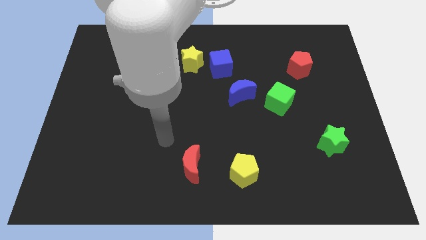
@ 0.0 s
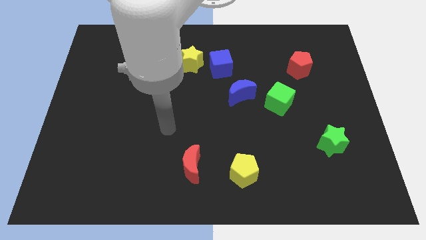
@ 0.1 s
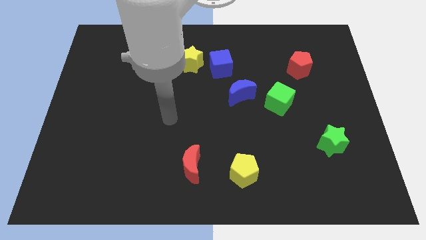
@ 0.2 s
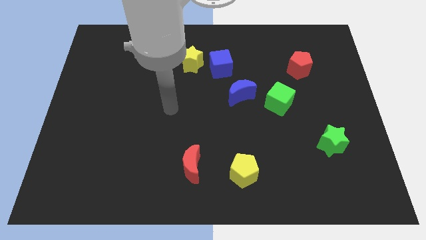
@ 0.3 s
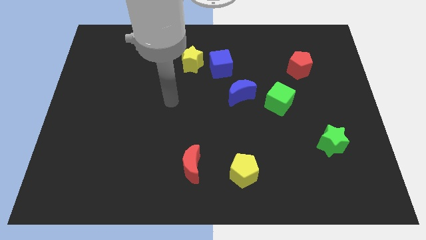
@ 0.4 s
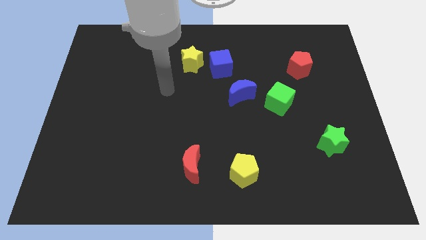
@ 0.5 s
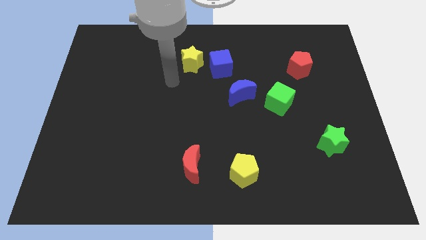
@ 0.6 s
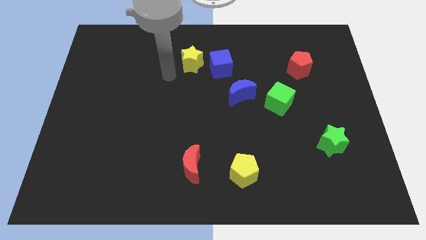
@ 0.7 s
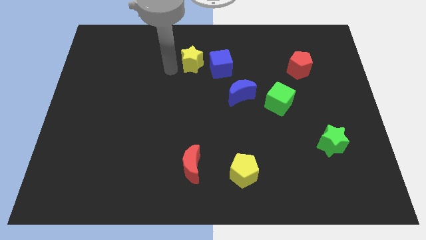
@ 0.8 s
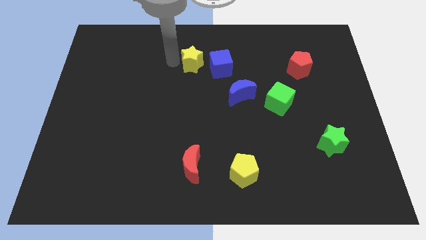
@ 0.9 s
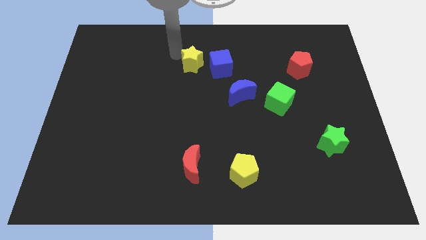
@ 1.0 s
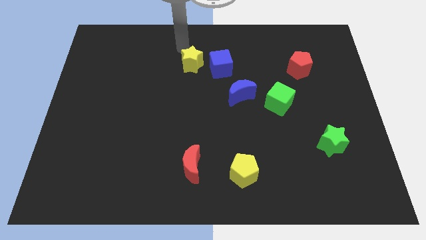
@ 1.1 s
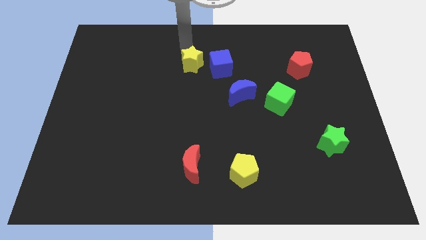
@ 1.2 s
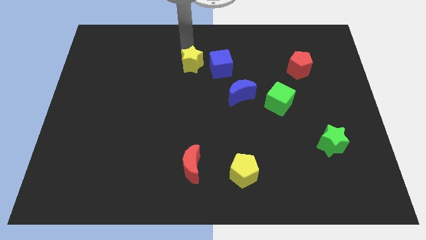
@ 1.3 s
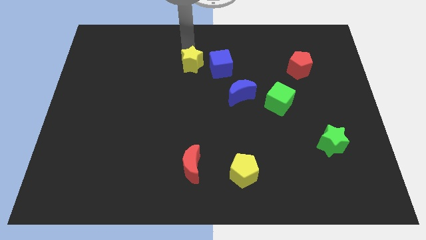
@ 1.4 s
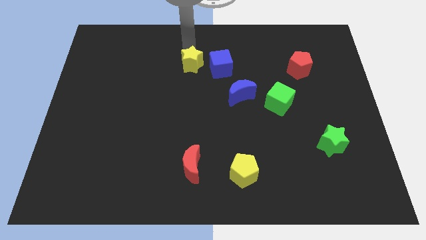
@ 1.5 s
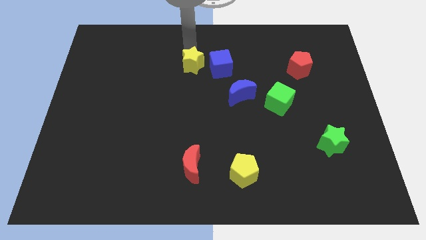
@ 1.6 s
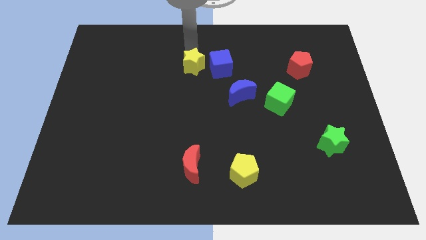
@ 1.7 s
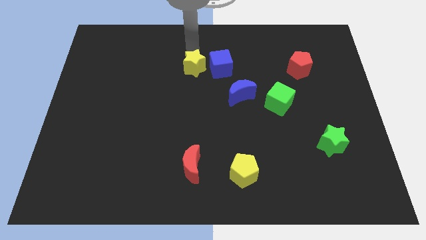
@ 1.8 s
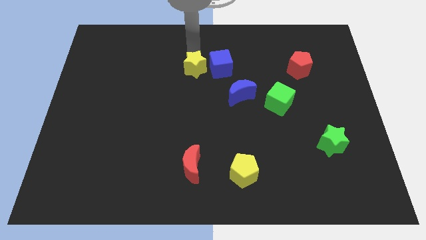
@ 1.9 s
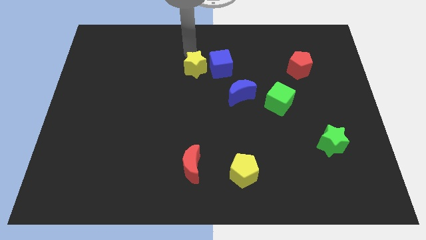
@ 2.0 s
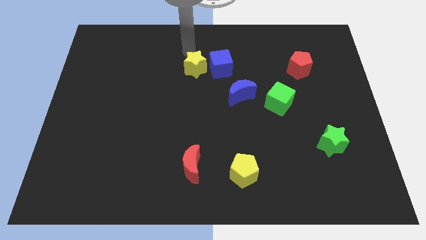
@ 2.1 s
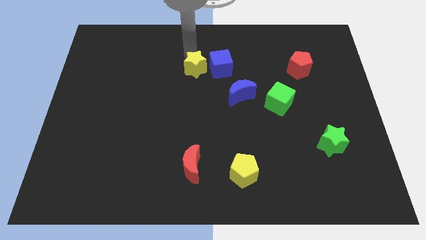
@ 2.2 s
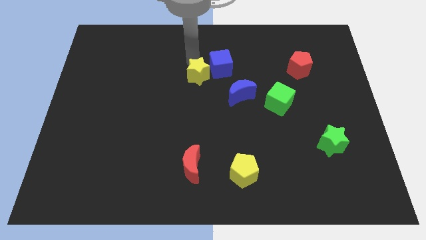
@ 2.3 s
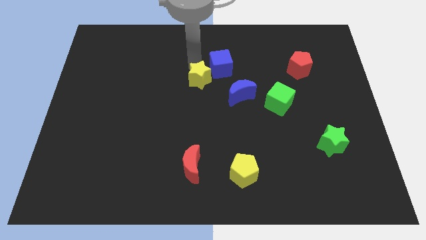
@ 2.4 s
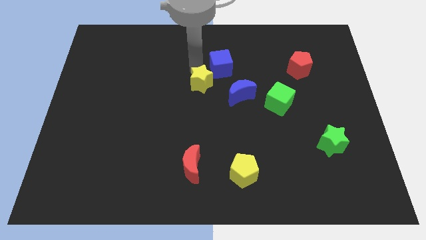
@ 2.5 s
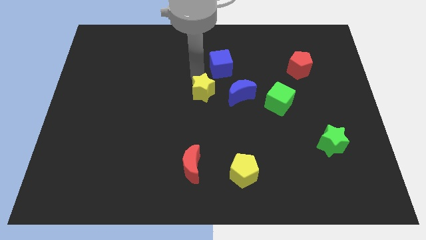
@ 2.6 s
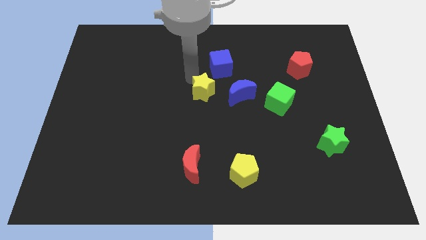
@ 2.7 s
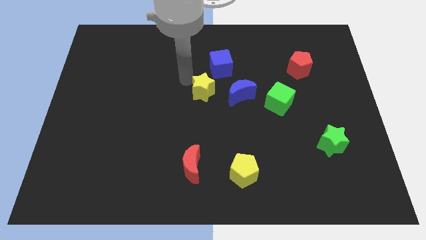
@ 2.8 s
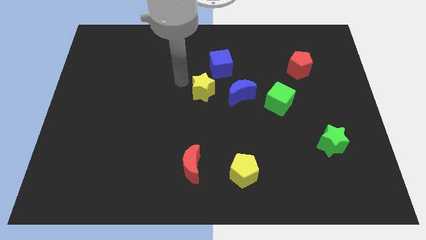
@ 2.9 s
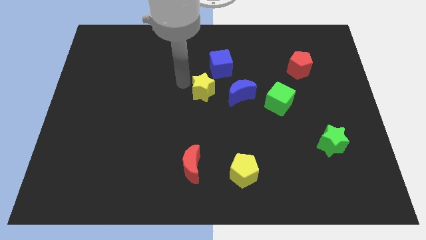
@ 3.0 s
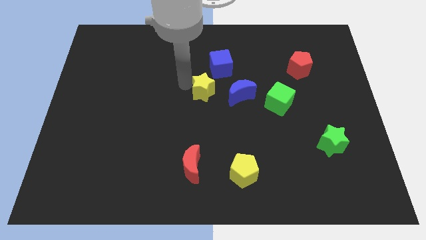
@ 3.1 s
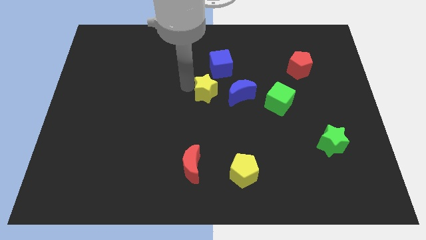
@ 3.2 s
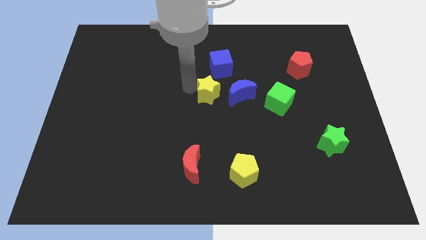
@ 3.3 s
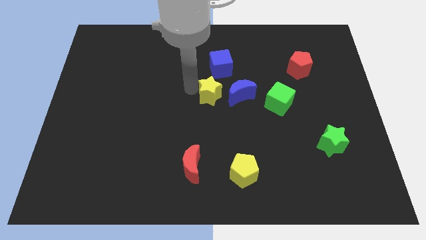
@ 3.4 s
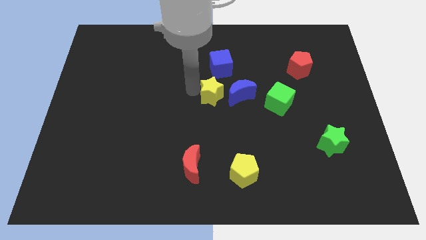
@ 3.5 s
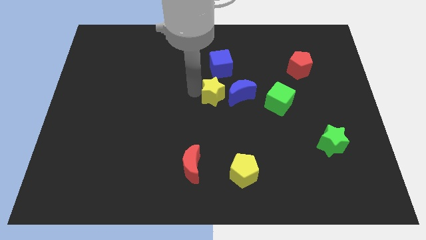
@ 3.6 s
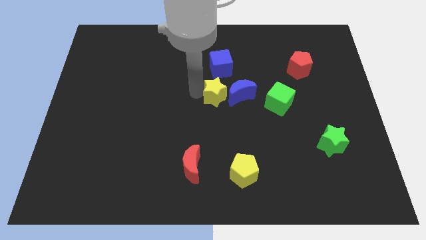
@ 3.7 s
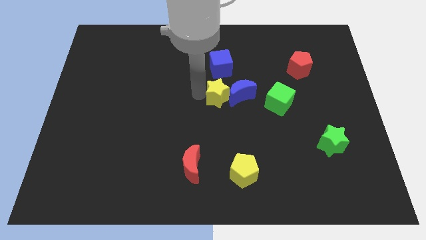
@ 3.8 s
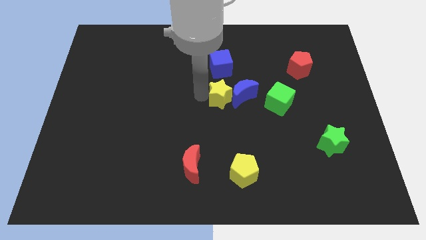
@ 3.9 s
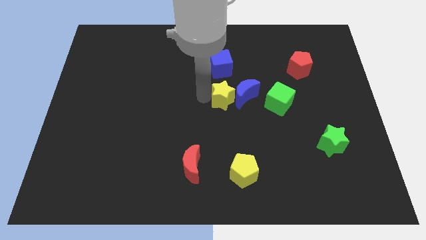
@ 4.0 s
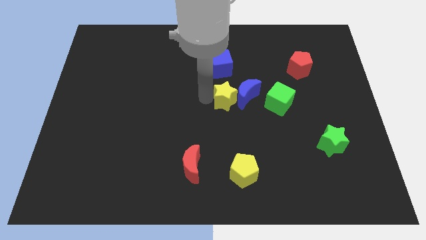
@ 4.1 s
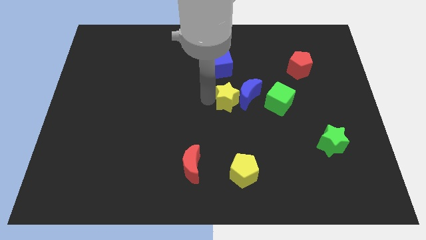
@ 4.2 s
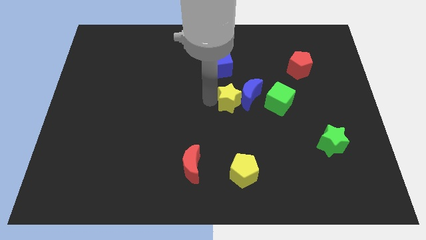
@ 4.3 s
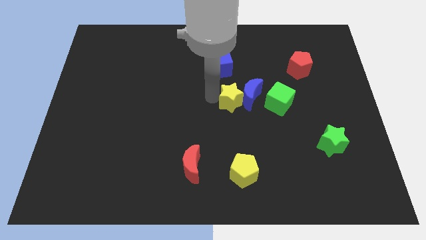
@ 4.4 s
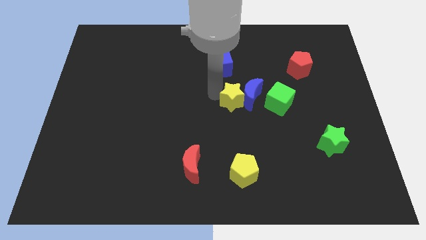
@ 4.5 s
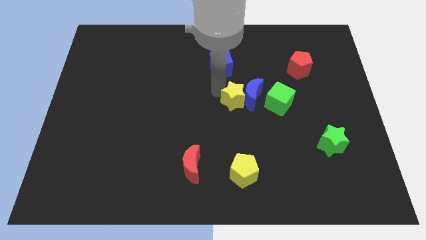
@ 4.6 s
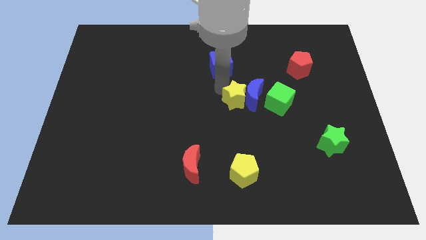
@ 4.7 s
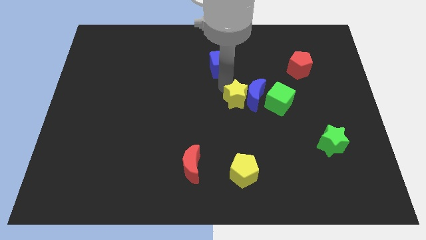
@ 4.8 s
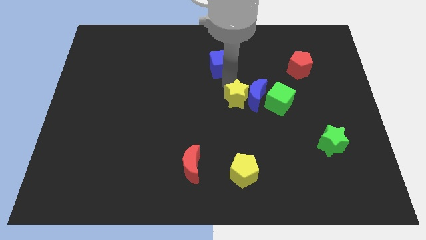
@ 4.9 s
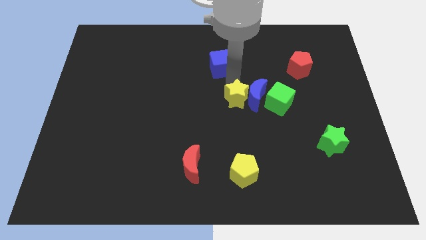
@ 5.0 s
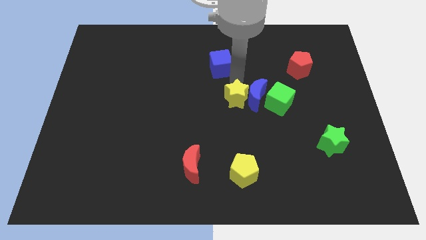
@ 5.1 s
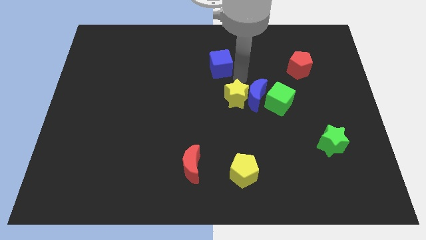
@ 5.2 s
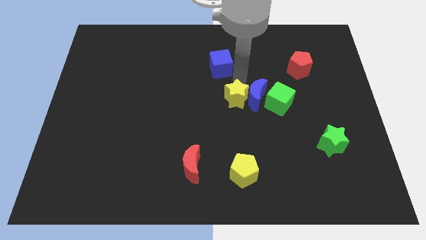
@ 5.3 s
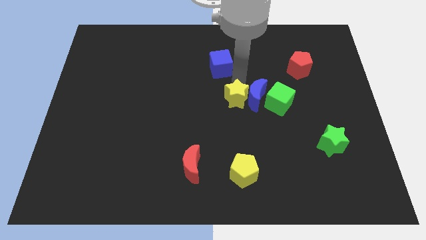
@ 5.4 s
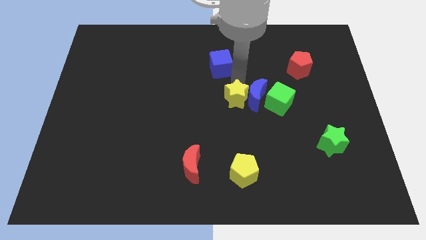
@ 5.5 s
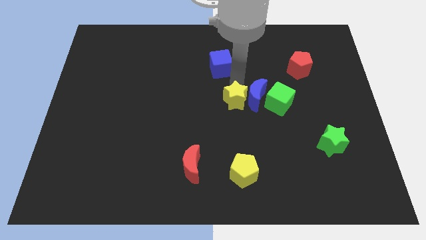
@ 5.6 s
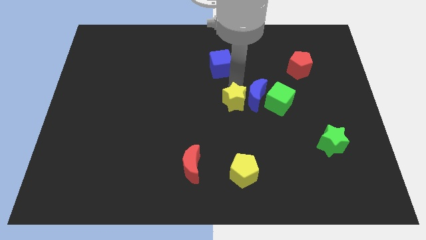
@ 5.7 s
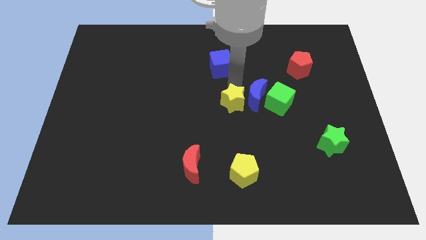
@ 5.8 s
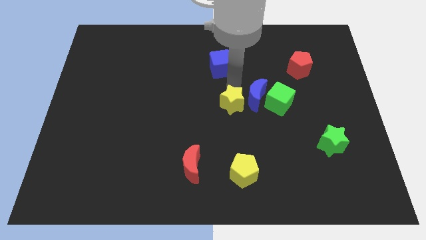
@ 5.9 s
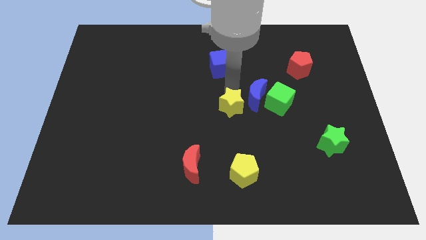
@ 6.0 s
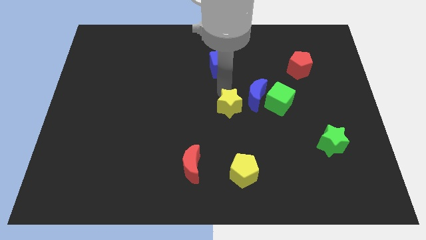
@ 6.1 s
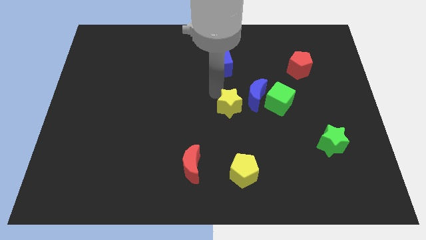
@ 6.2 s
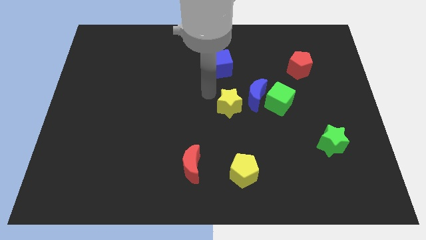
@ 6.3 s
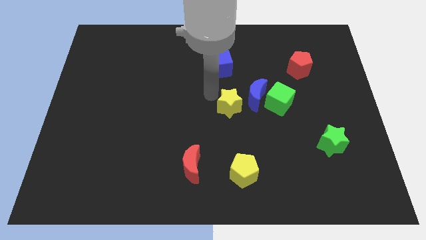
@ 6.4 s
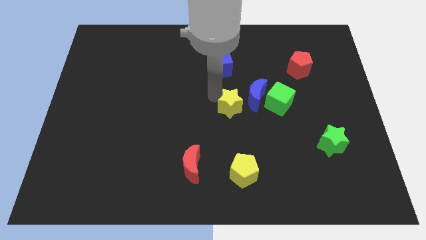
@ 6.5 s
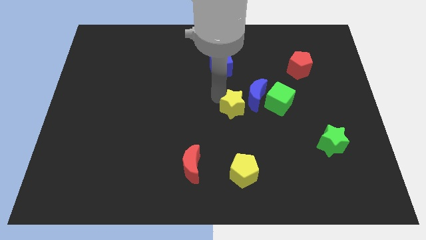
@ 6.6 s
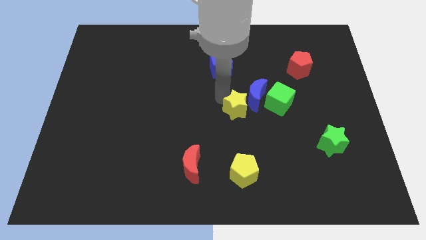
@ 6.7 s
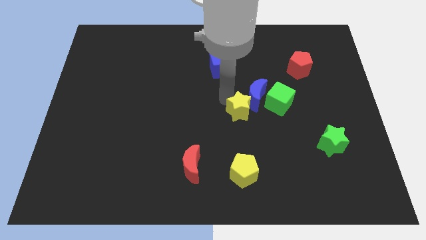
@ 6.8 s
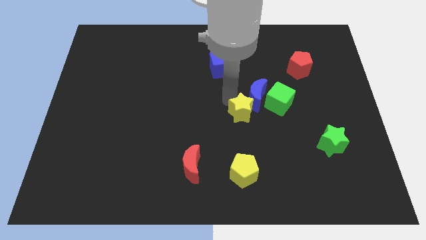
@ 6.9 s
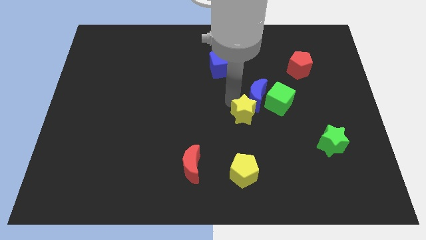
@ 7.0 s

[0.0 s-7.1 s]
move the yellow star downwards and right diagonally

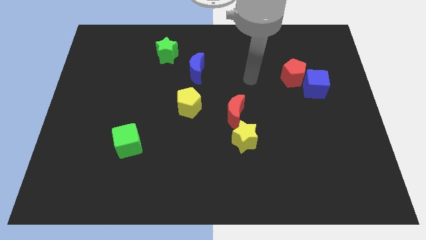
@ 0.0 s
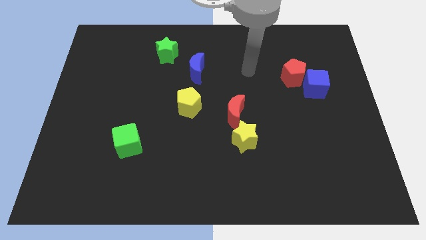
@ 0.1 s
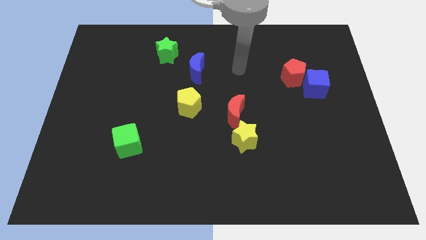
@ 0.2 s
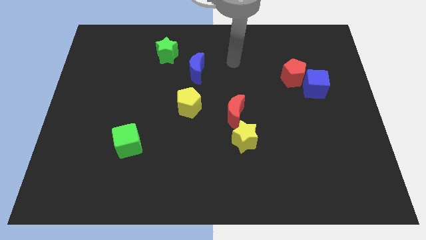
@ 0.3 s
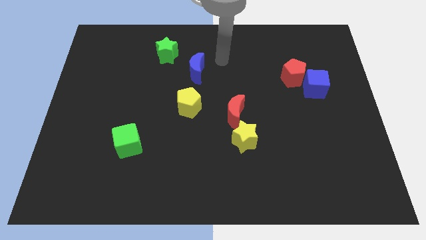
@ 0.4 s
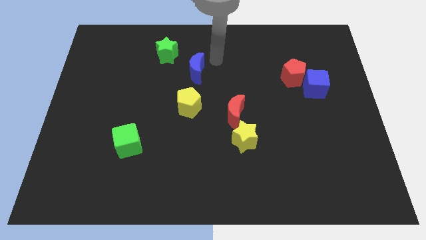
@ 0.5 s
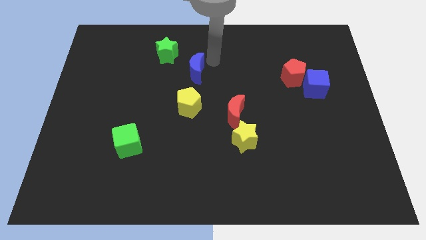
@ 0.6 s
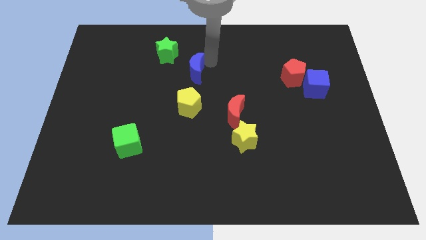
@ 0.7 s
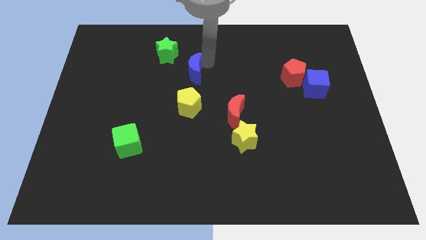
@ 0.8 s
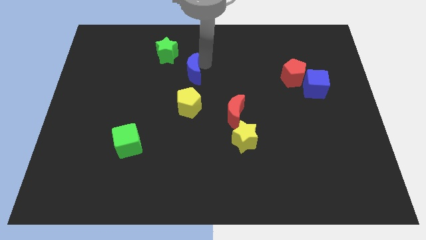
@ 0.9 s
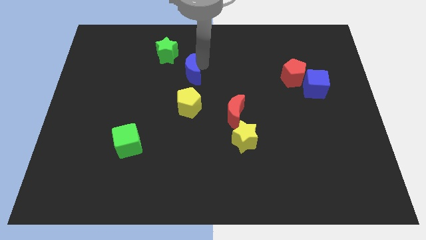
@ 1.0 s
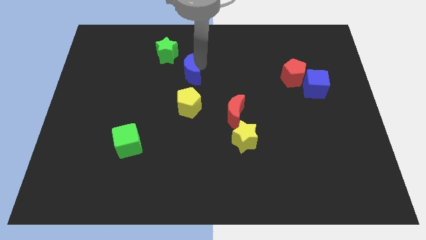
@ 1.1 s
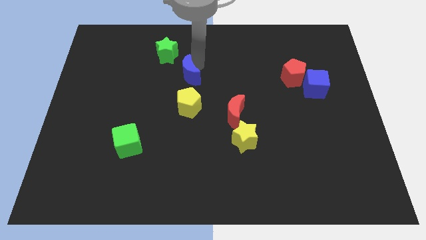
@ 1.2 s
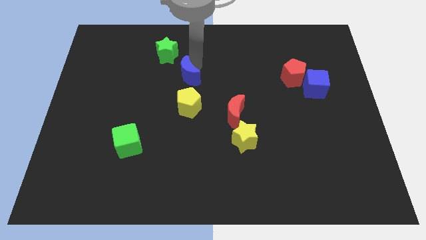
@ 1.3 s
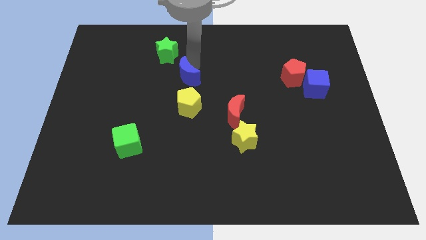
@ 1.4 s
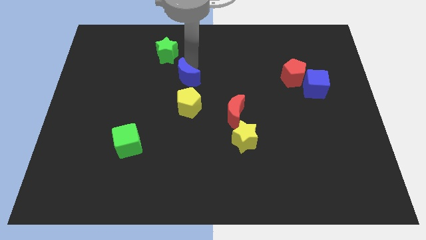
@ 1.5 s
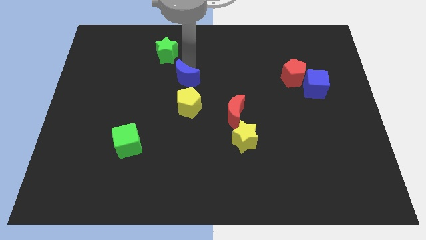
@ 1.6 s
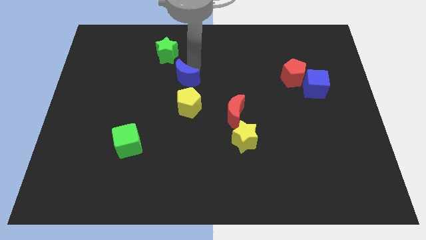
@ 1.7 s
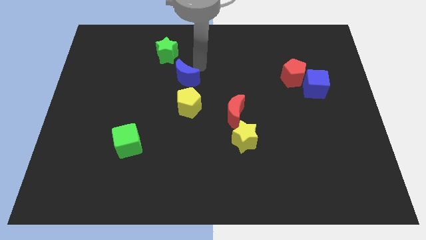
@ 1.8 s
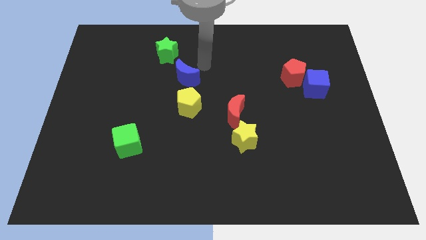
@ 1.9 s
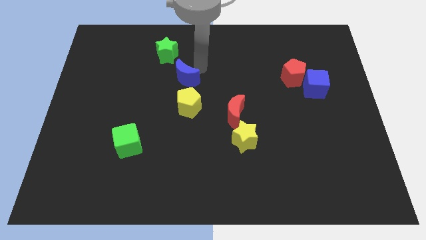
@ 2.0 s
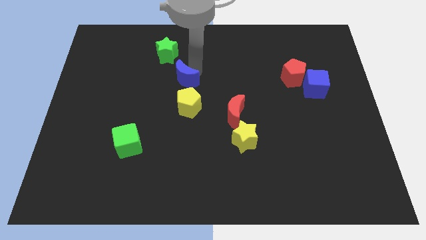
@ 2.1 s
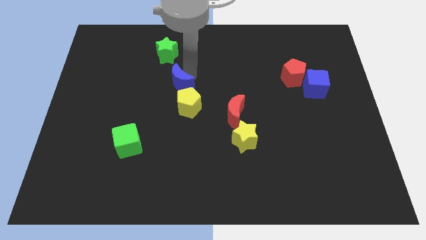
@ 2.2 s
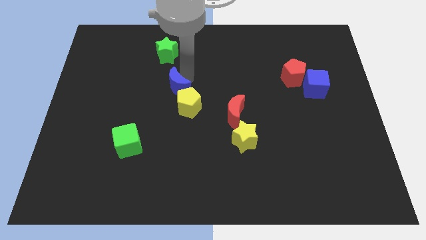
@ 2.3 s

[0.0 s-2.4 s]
slide the blue moon diagonally down and to the left a little
